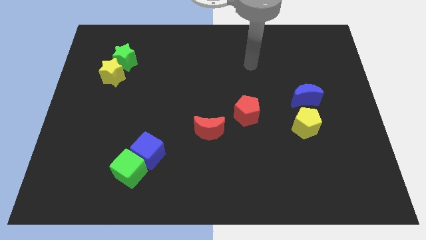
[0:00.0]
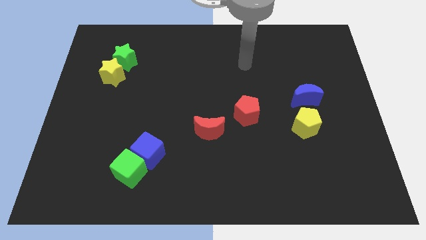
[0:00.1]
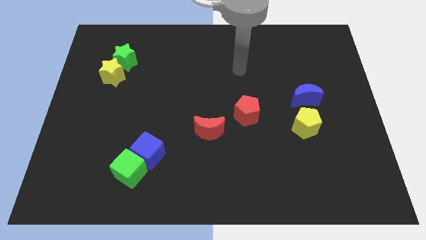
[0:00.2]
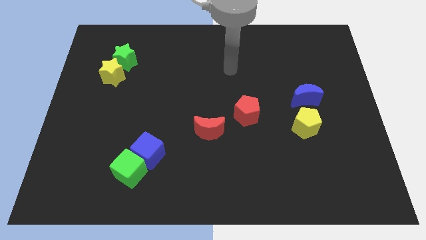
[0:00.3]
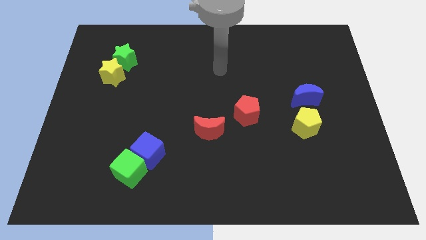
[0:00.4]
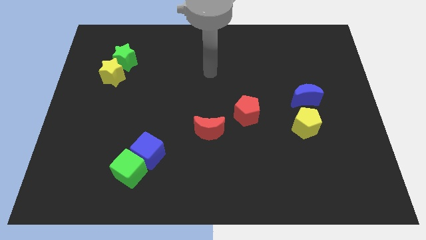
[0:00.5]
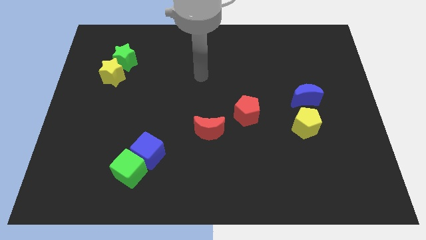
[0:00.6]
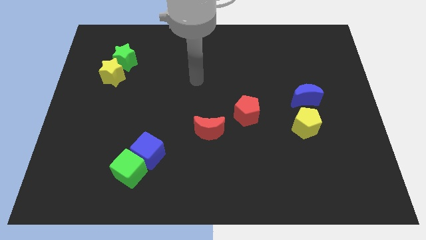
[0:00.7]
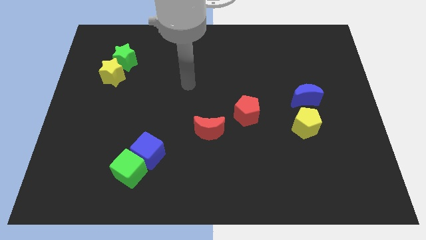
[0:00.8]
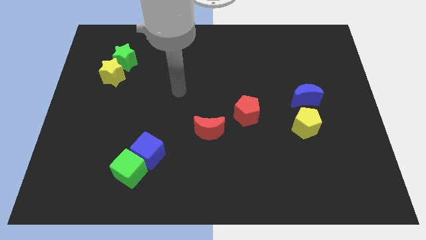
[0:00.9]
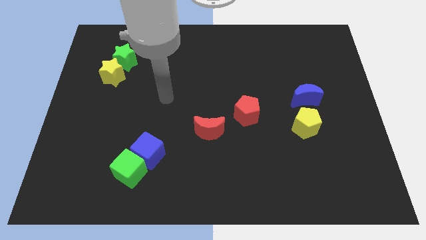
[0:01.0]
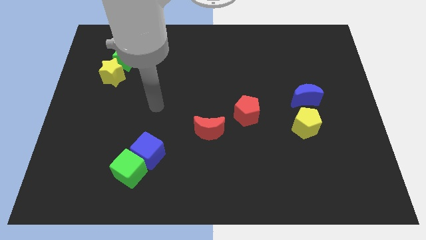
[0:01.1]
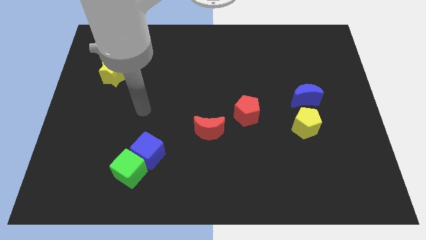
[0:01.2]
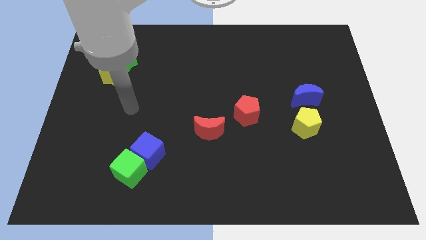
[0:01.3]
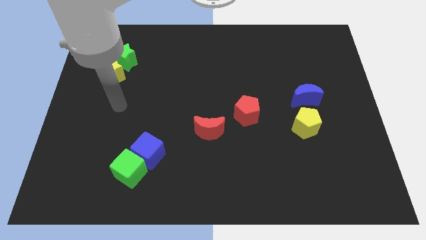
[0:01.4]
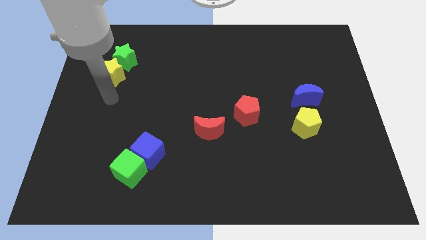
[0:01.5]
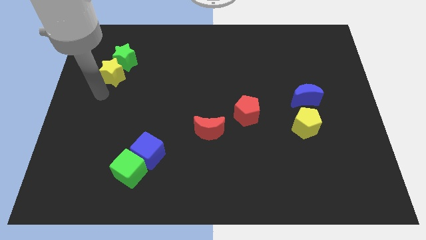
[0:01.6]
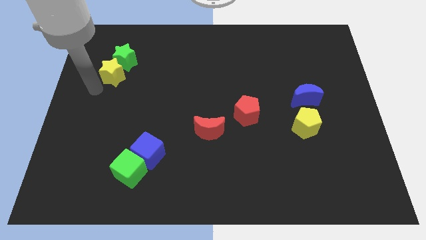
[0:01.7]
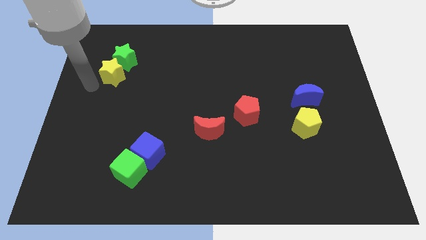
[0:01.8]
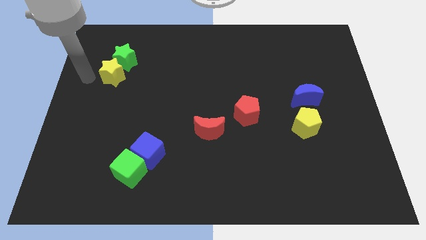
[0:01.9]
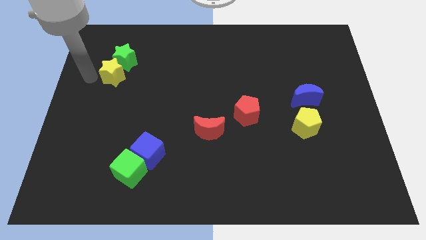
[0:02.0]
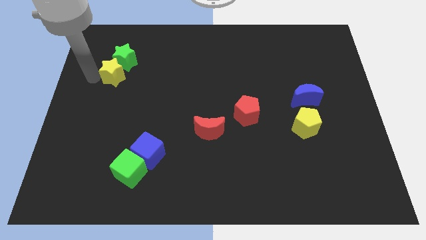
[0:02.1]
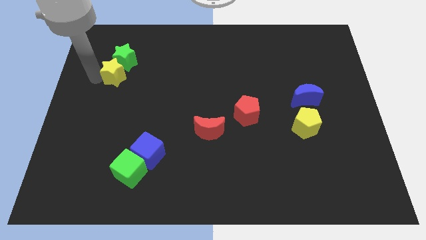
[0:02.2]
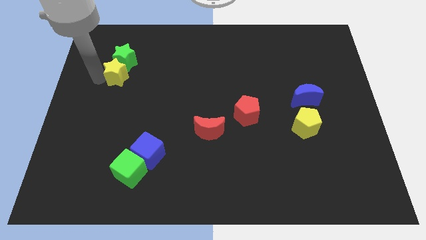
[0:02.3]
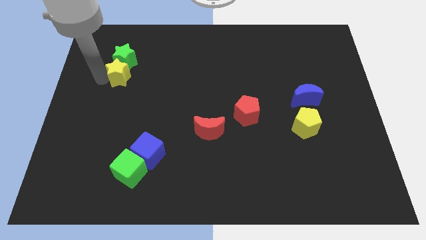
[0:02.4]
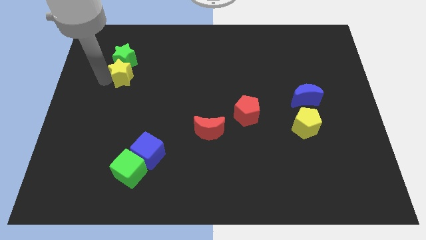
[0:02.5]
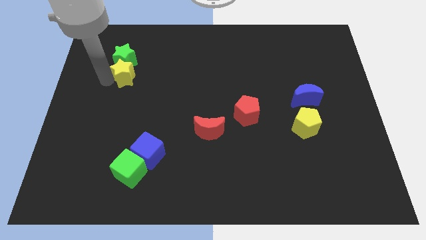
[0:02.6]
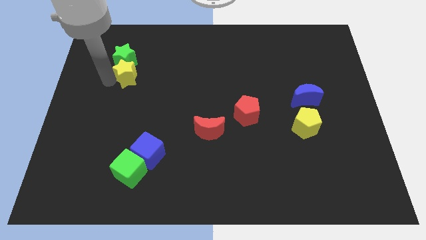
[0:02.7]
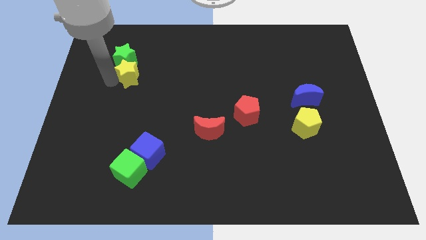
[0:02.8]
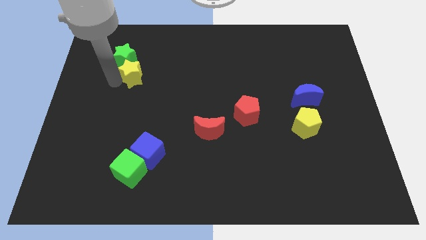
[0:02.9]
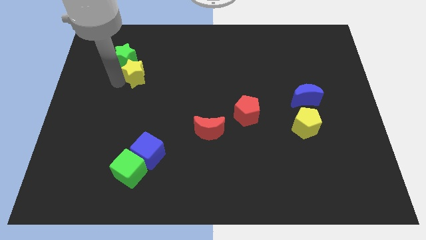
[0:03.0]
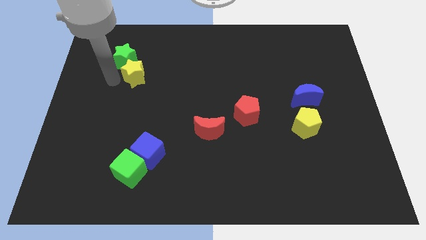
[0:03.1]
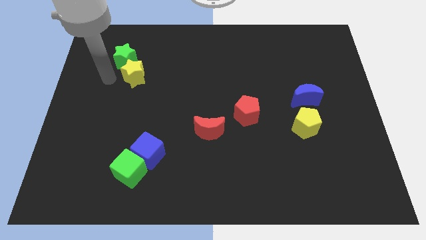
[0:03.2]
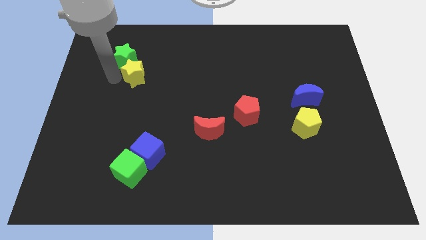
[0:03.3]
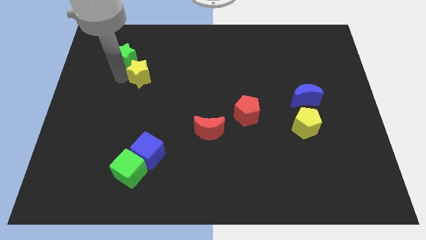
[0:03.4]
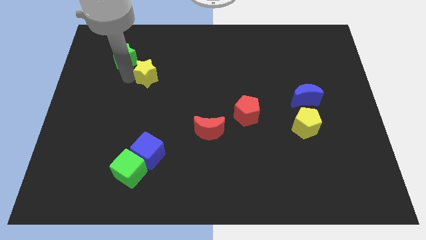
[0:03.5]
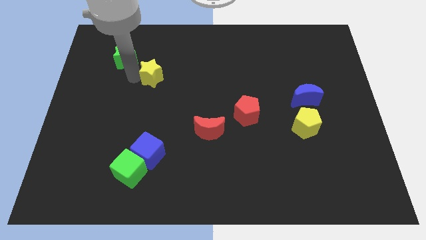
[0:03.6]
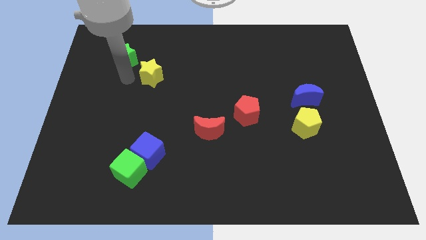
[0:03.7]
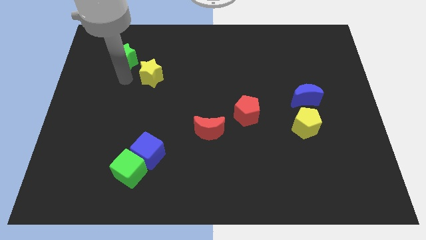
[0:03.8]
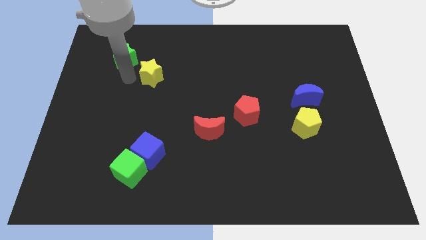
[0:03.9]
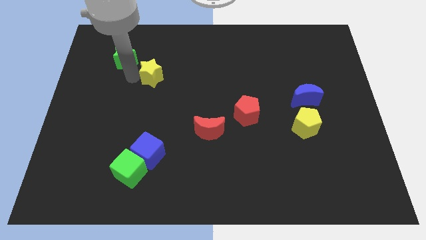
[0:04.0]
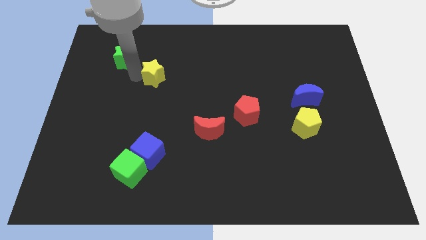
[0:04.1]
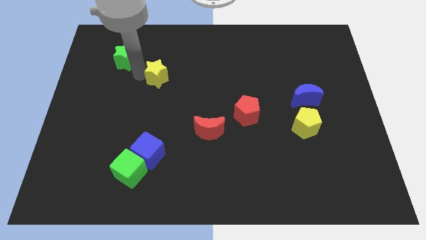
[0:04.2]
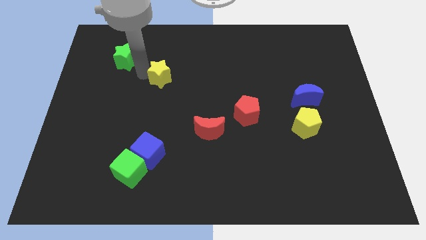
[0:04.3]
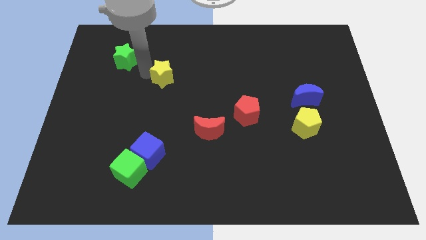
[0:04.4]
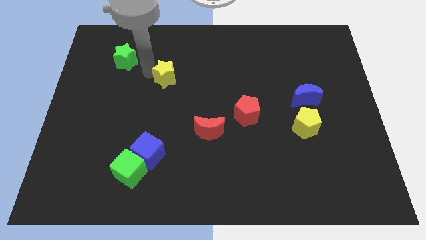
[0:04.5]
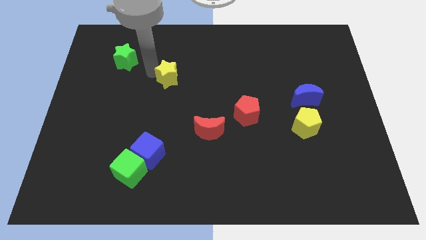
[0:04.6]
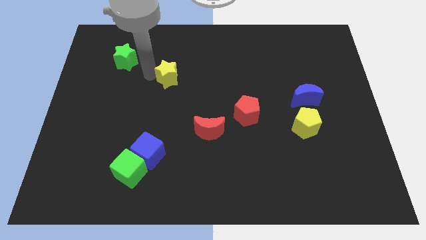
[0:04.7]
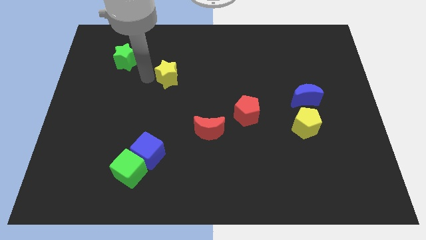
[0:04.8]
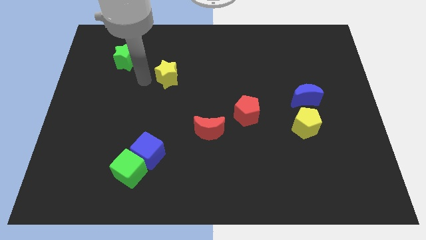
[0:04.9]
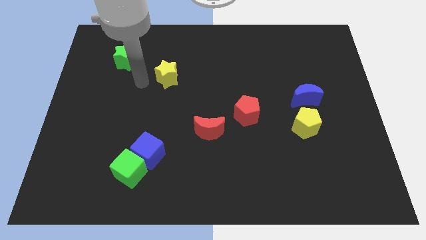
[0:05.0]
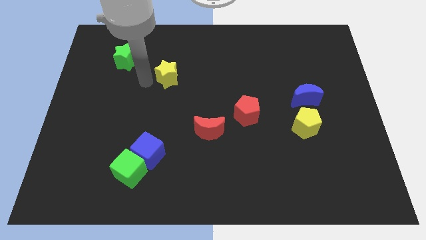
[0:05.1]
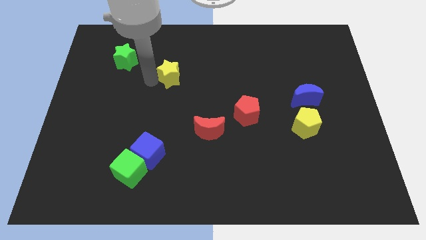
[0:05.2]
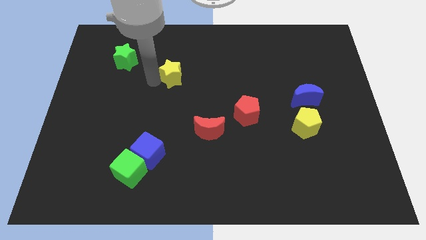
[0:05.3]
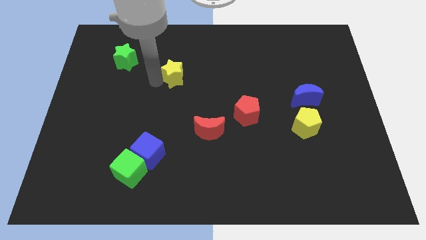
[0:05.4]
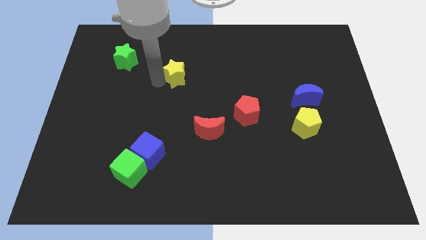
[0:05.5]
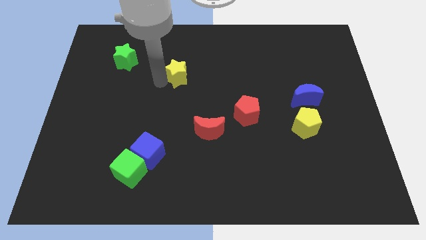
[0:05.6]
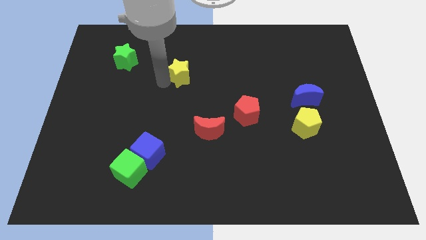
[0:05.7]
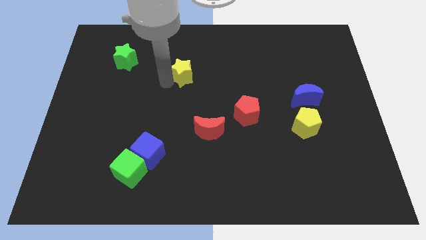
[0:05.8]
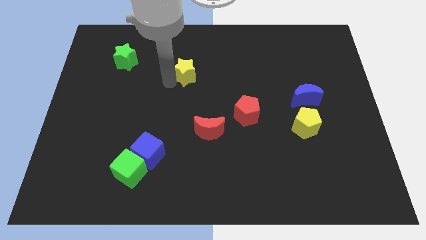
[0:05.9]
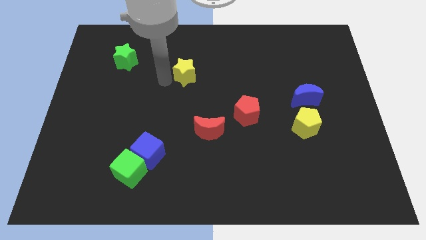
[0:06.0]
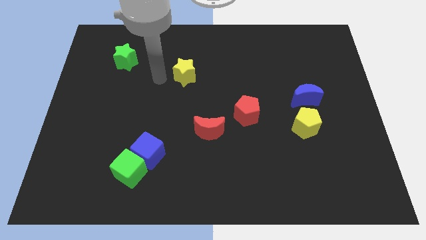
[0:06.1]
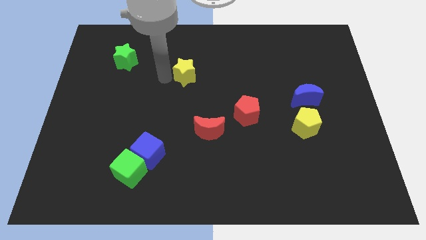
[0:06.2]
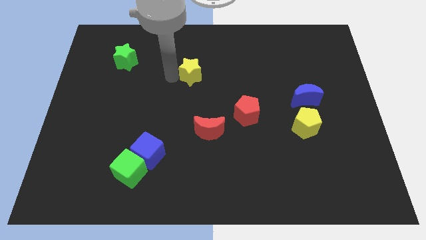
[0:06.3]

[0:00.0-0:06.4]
slide the yellow star right

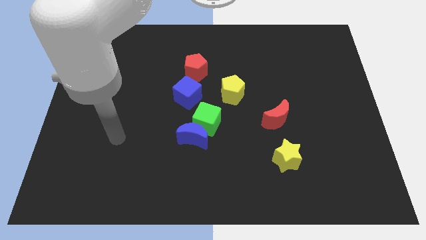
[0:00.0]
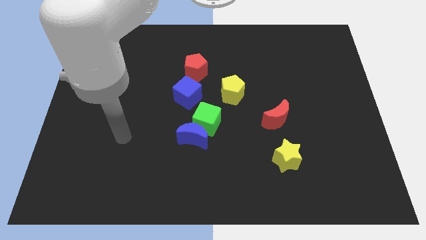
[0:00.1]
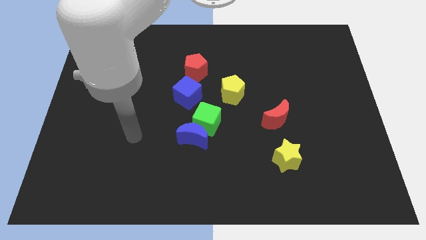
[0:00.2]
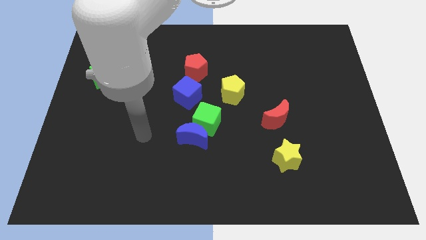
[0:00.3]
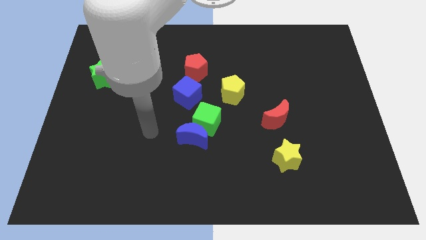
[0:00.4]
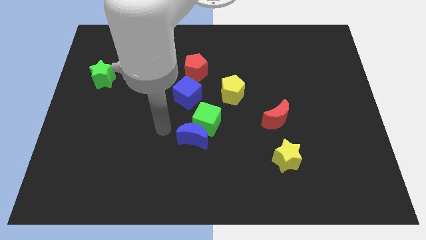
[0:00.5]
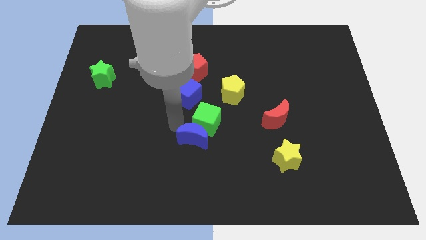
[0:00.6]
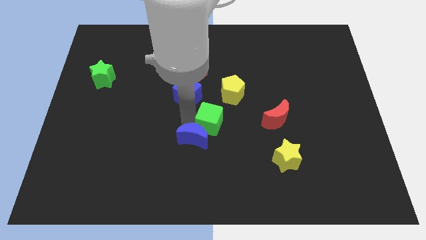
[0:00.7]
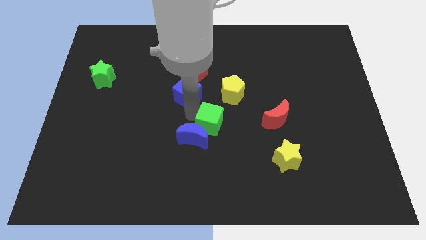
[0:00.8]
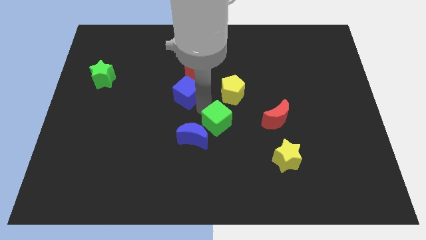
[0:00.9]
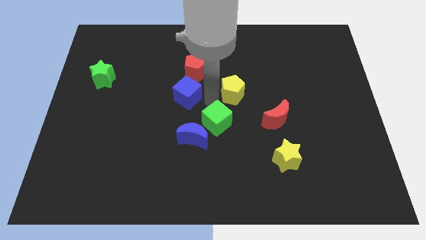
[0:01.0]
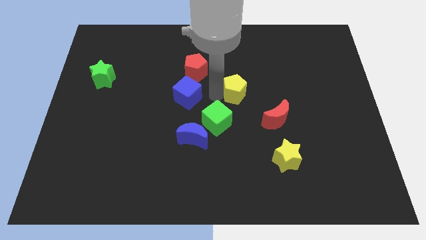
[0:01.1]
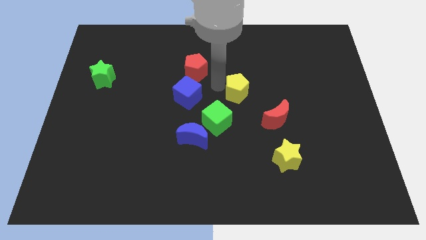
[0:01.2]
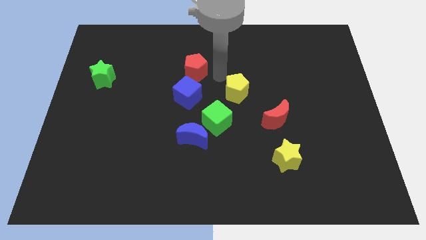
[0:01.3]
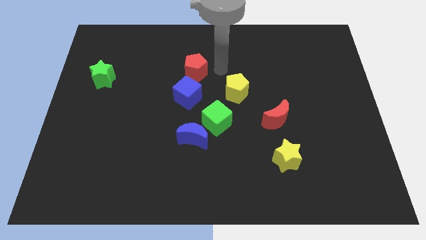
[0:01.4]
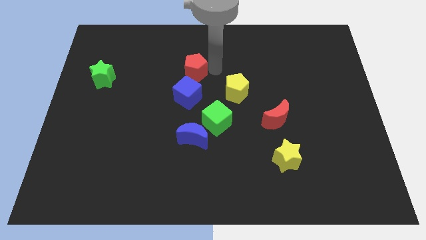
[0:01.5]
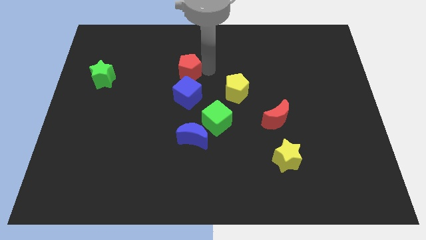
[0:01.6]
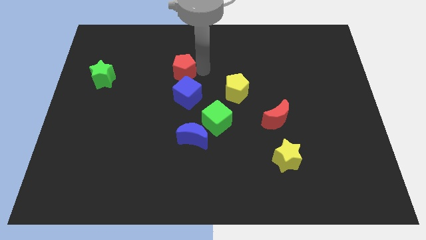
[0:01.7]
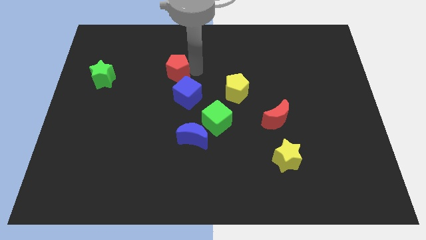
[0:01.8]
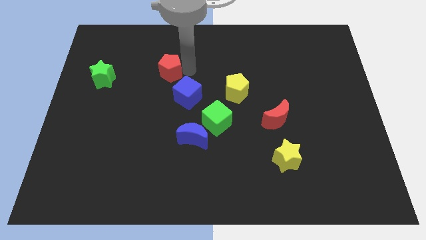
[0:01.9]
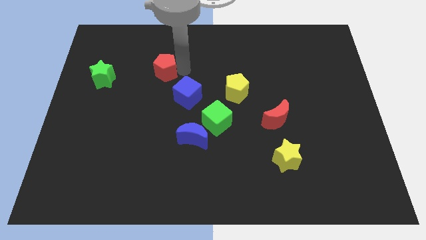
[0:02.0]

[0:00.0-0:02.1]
slightly push the red pentagon left
